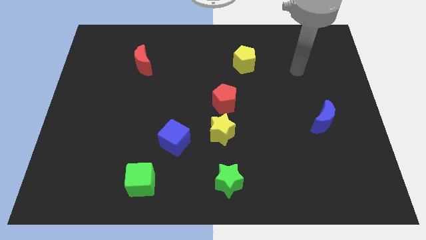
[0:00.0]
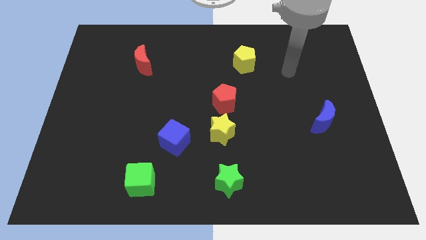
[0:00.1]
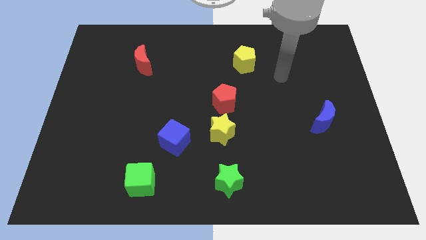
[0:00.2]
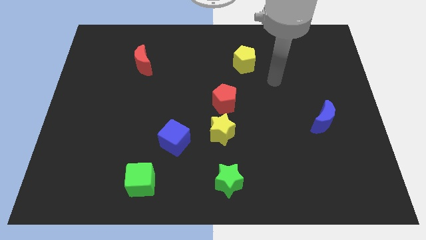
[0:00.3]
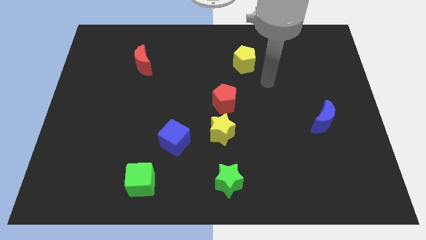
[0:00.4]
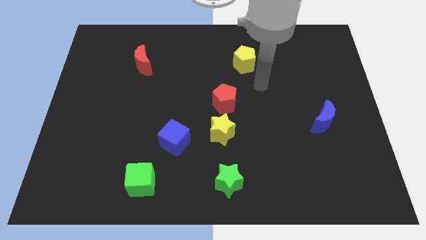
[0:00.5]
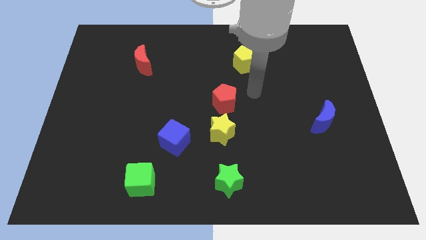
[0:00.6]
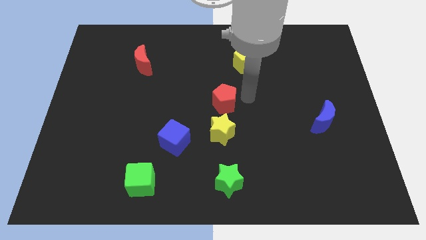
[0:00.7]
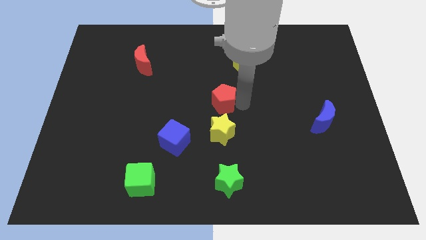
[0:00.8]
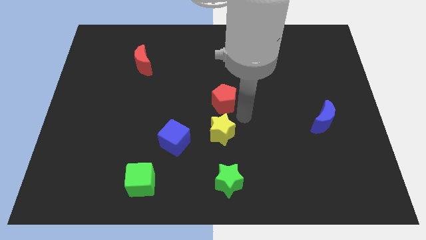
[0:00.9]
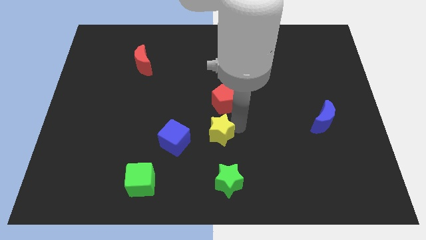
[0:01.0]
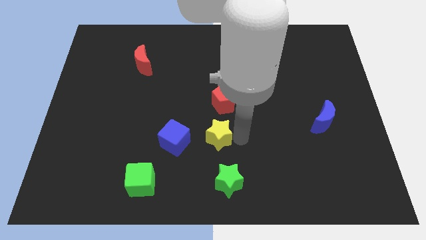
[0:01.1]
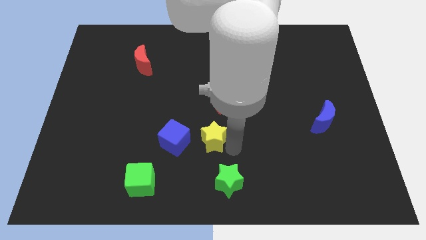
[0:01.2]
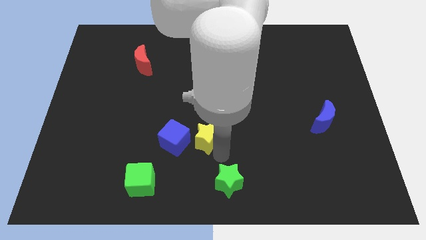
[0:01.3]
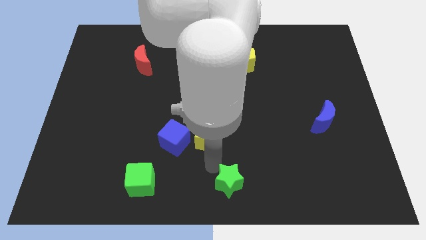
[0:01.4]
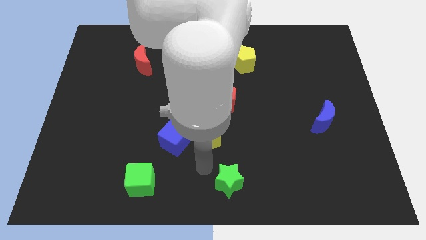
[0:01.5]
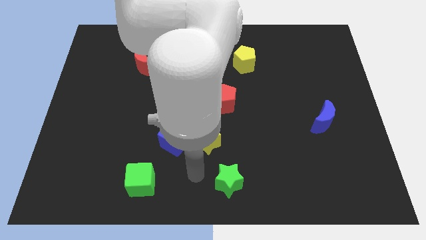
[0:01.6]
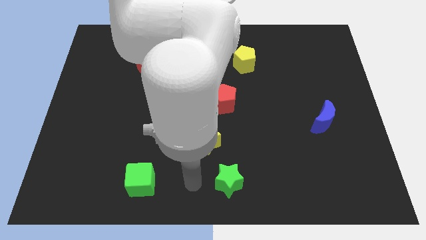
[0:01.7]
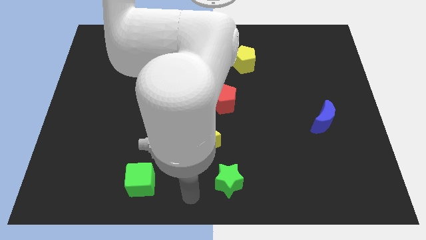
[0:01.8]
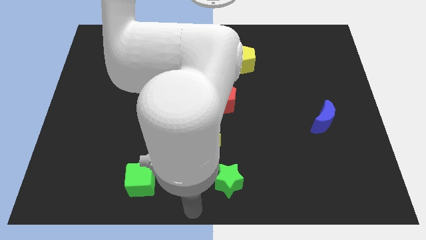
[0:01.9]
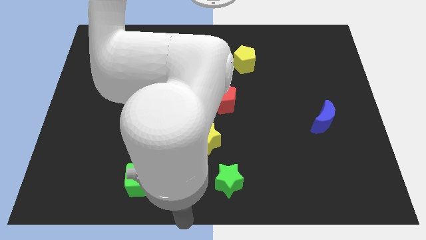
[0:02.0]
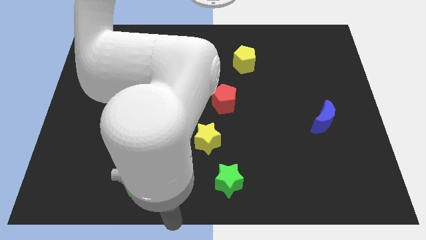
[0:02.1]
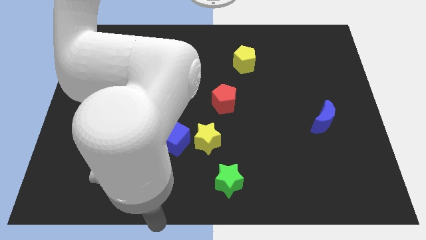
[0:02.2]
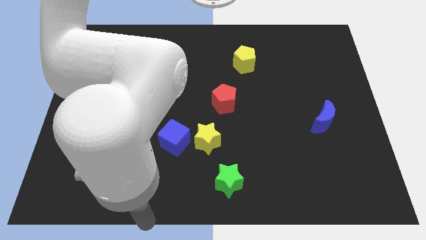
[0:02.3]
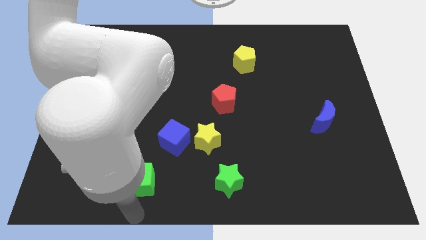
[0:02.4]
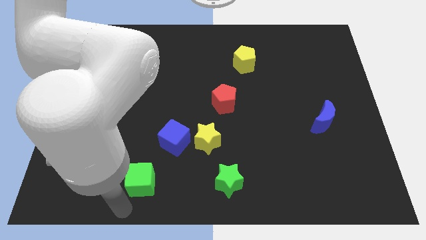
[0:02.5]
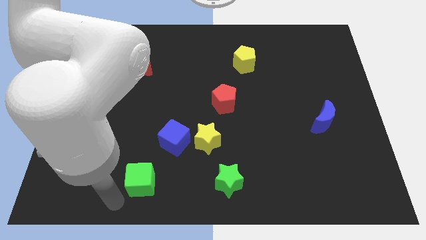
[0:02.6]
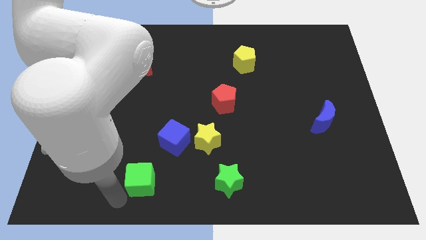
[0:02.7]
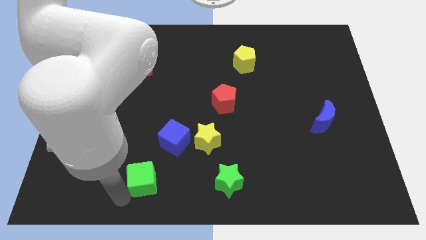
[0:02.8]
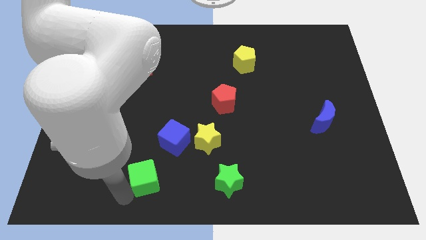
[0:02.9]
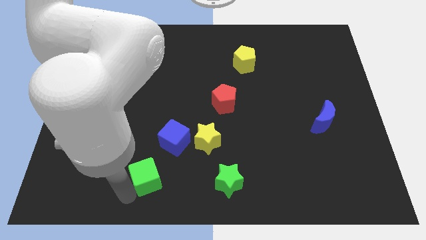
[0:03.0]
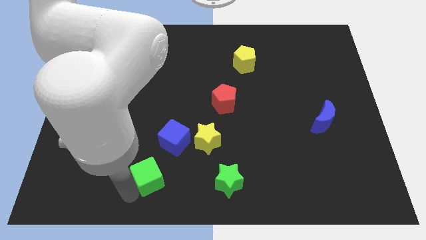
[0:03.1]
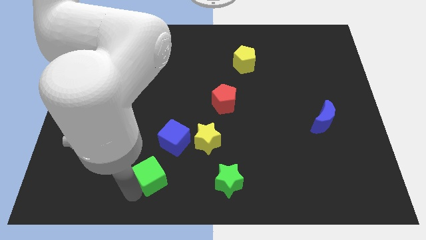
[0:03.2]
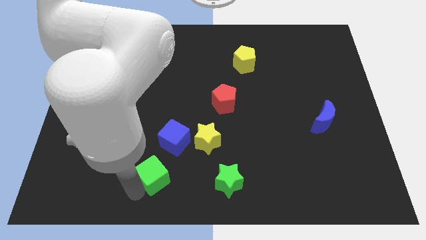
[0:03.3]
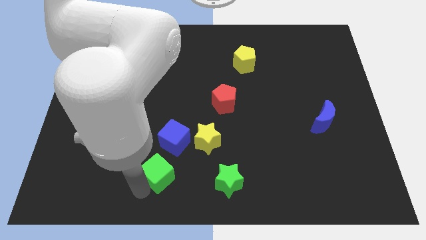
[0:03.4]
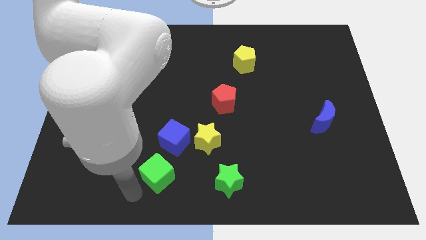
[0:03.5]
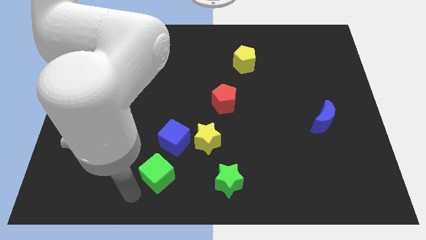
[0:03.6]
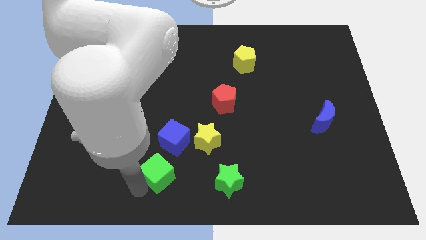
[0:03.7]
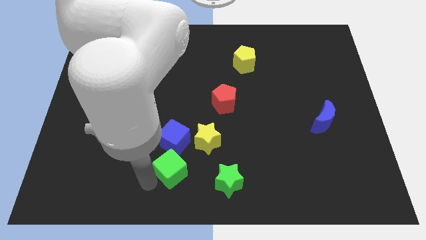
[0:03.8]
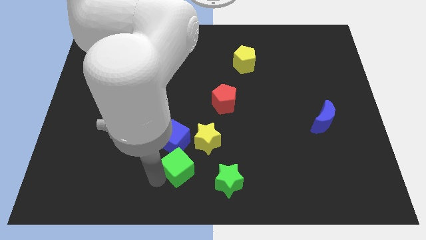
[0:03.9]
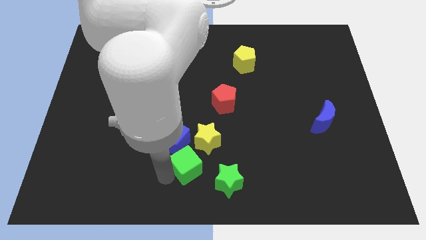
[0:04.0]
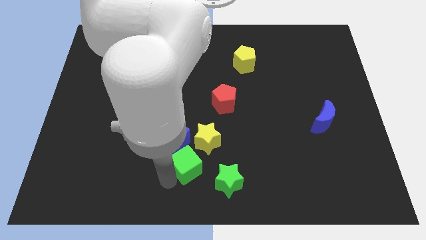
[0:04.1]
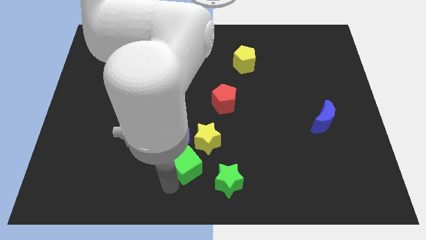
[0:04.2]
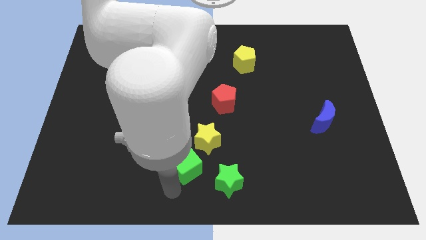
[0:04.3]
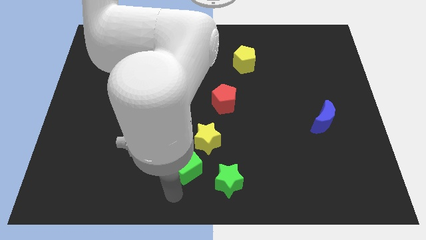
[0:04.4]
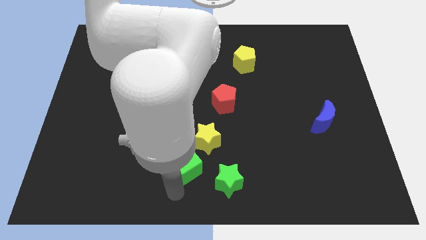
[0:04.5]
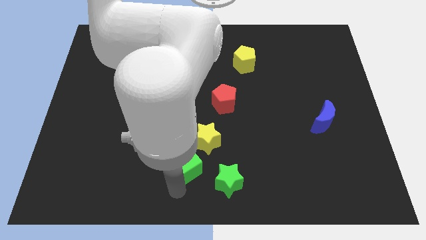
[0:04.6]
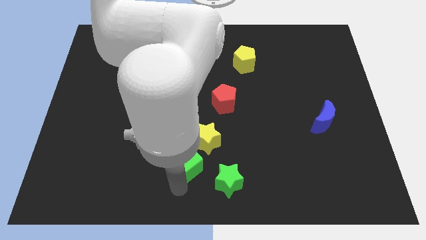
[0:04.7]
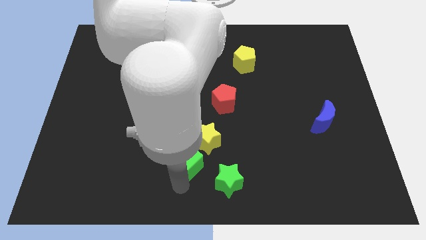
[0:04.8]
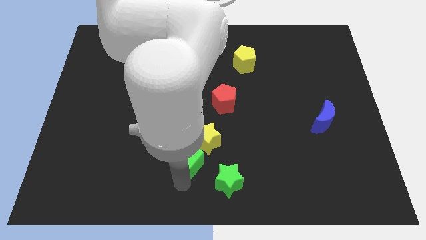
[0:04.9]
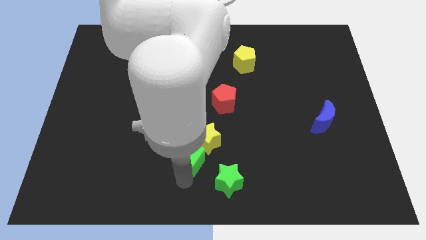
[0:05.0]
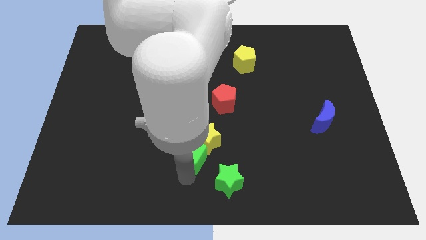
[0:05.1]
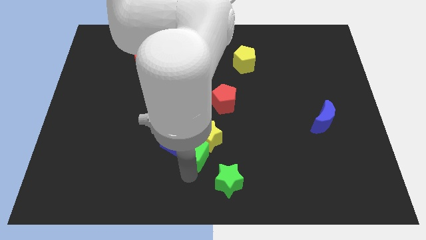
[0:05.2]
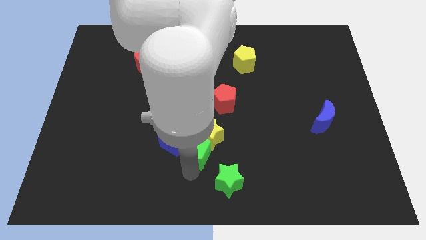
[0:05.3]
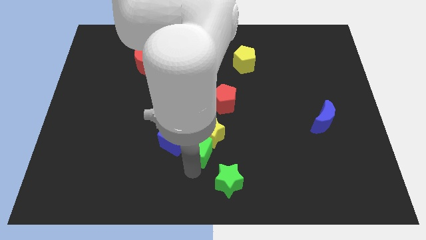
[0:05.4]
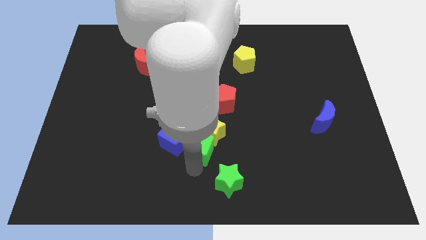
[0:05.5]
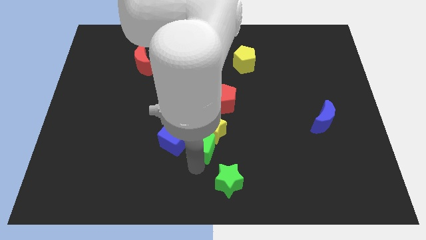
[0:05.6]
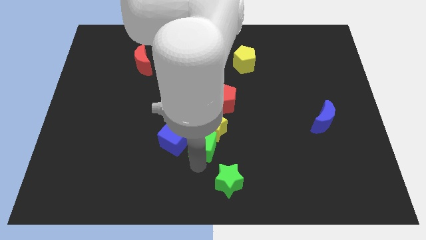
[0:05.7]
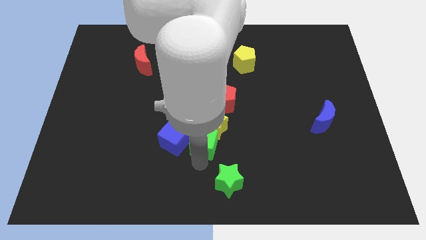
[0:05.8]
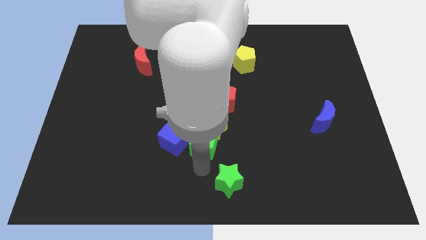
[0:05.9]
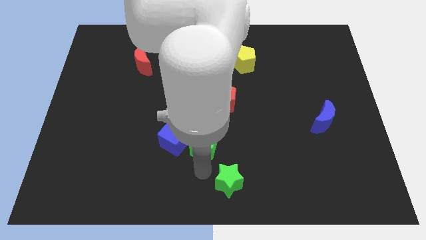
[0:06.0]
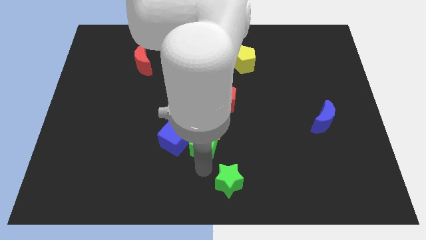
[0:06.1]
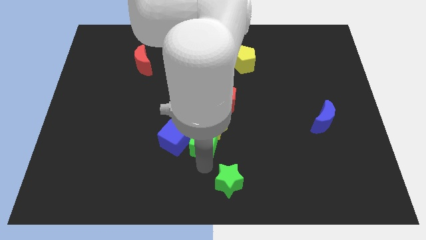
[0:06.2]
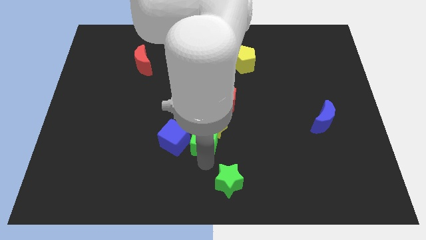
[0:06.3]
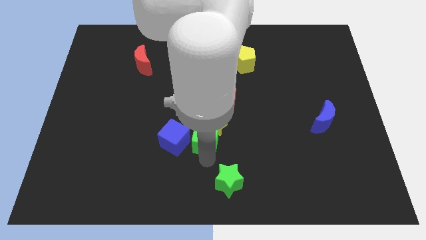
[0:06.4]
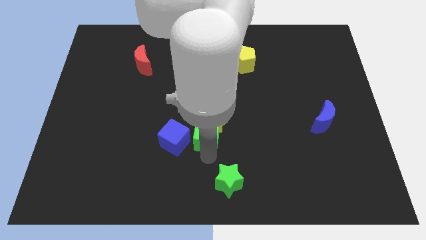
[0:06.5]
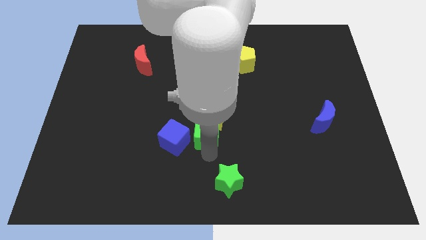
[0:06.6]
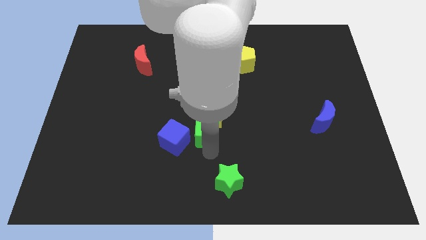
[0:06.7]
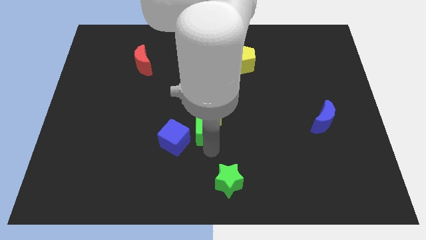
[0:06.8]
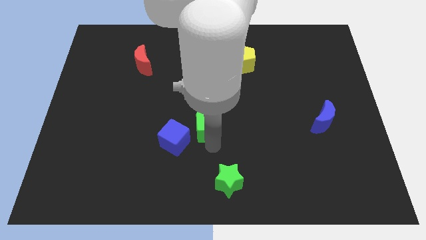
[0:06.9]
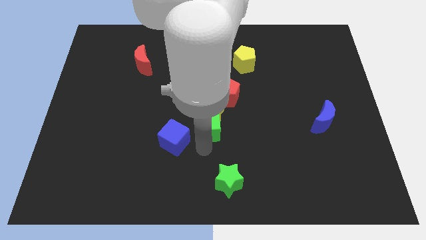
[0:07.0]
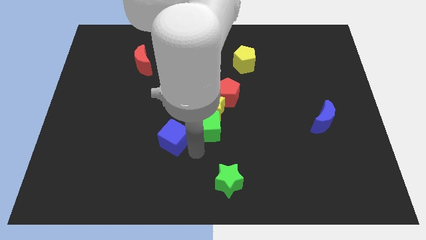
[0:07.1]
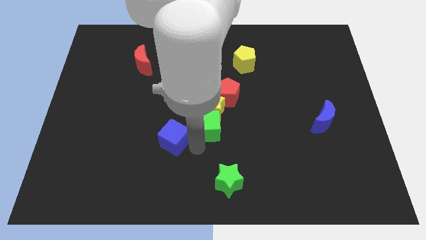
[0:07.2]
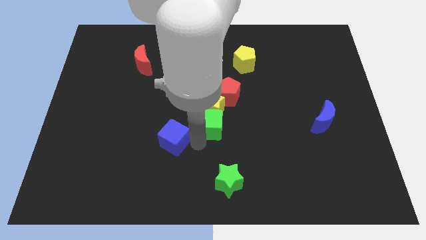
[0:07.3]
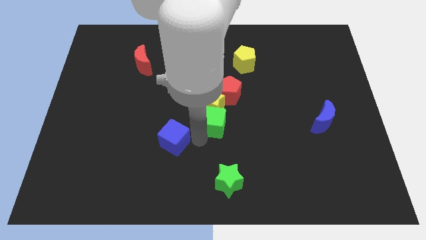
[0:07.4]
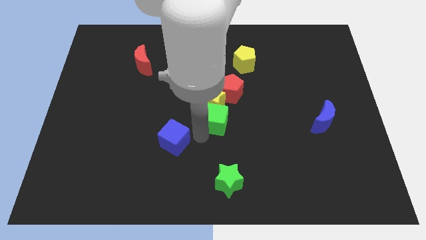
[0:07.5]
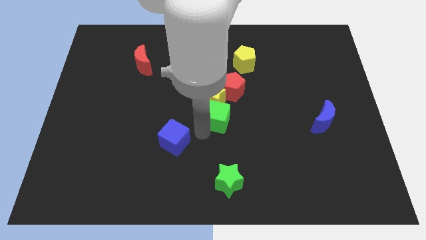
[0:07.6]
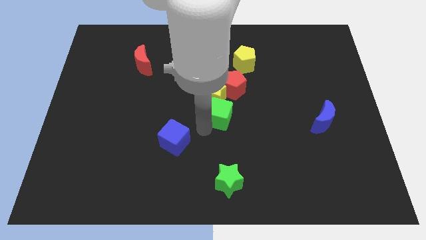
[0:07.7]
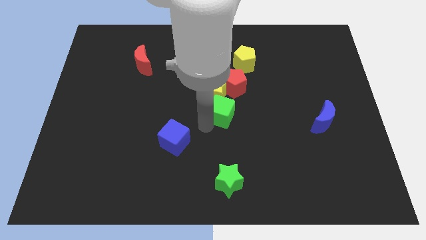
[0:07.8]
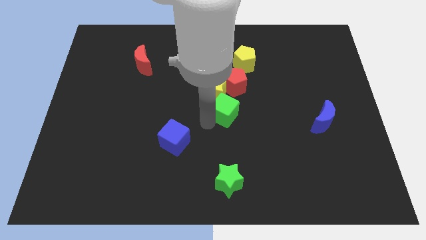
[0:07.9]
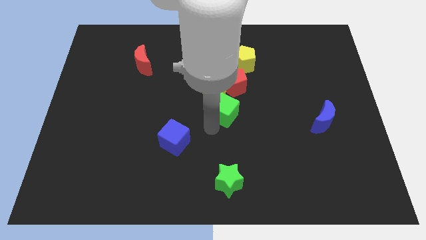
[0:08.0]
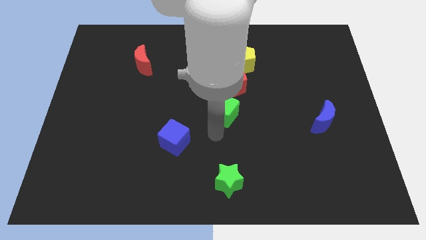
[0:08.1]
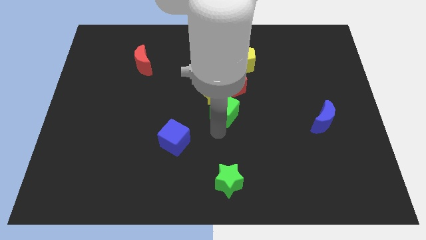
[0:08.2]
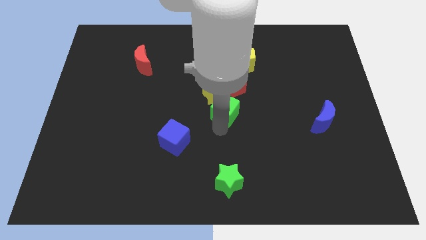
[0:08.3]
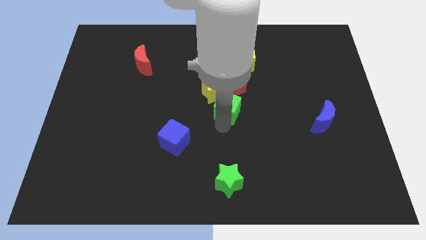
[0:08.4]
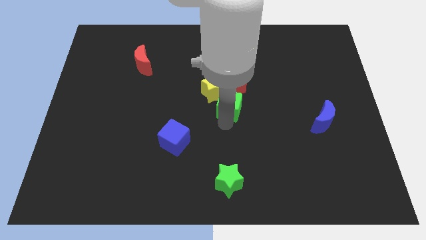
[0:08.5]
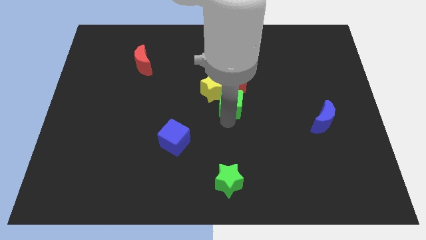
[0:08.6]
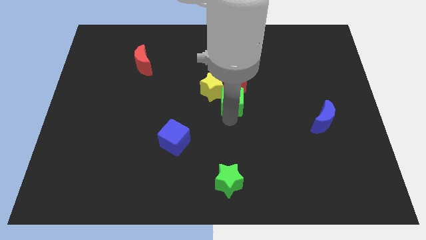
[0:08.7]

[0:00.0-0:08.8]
push the green cube to the red pentagon
